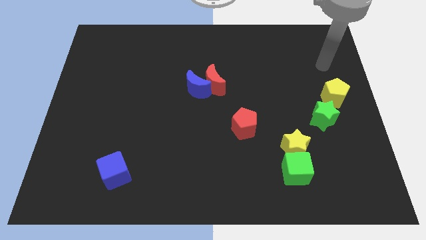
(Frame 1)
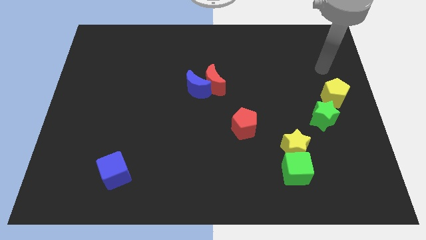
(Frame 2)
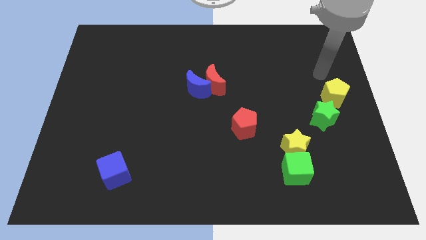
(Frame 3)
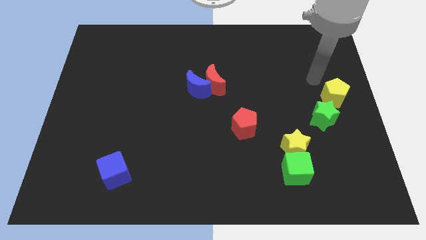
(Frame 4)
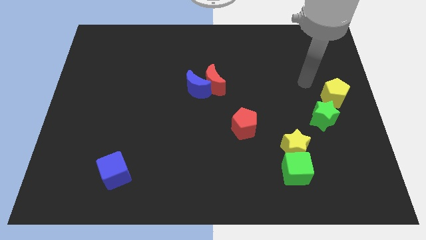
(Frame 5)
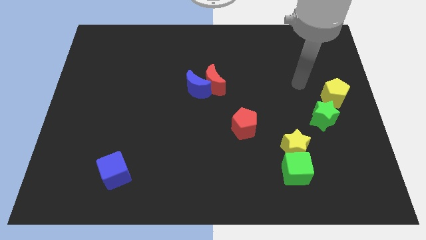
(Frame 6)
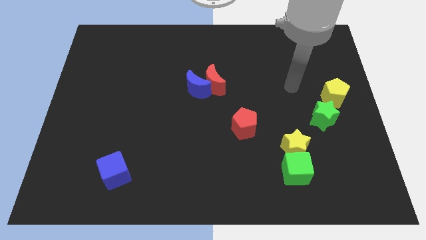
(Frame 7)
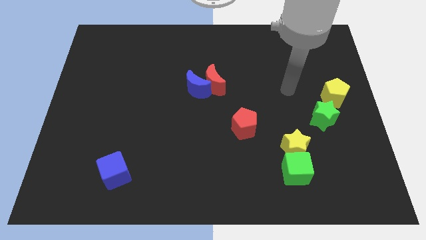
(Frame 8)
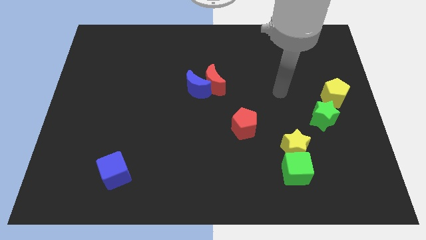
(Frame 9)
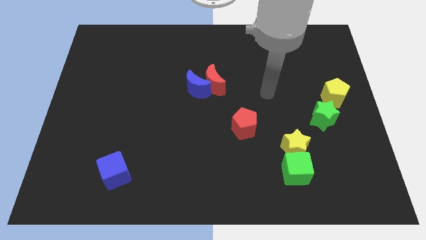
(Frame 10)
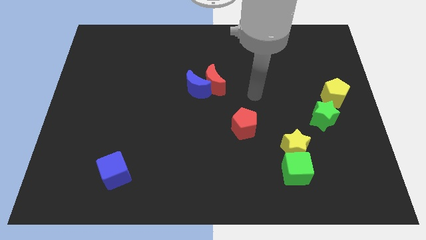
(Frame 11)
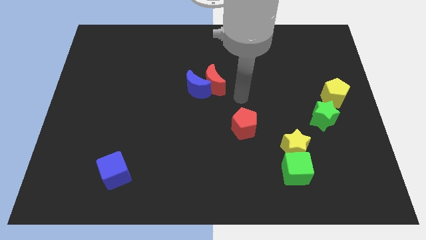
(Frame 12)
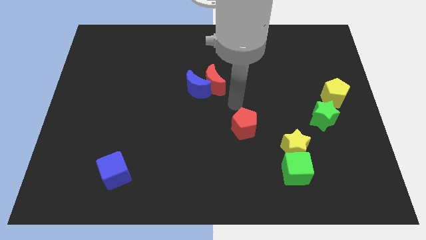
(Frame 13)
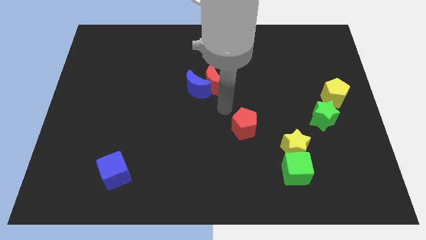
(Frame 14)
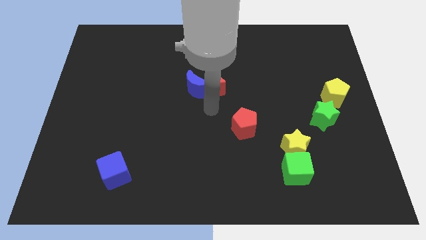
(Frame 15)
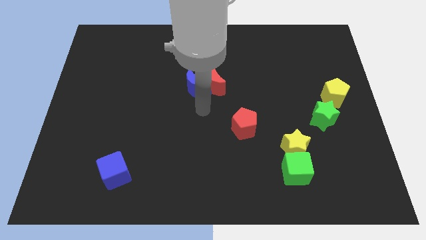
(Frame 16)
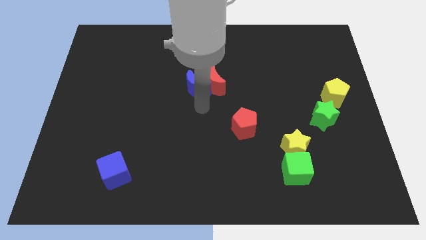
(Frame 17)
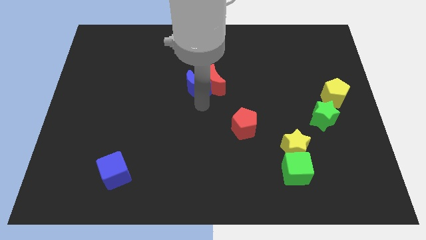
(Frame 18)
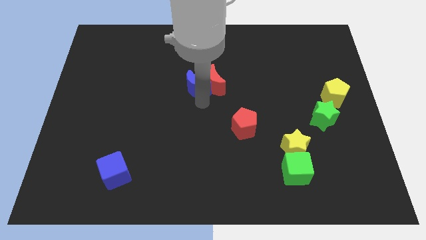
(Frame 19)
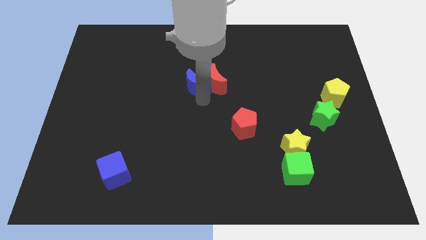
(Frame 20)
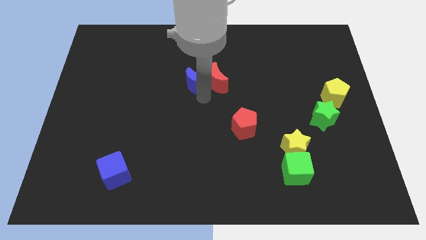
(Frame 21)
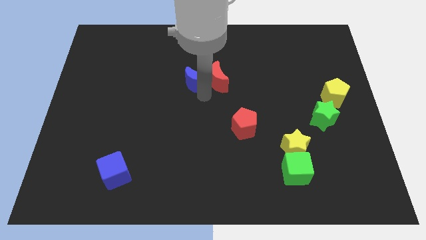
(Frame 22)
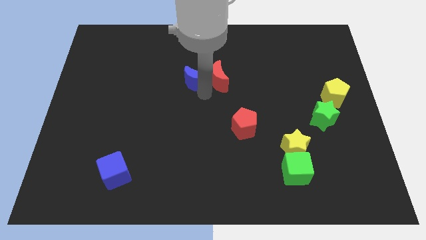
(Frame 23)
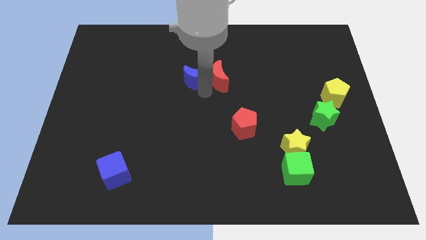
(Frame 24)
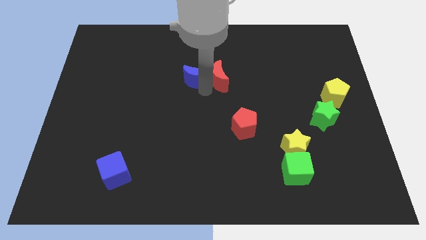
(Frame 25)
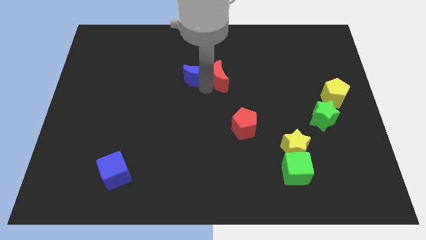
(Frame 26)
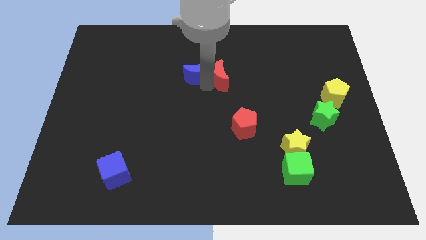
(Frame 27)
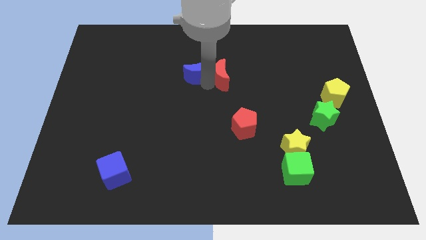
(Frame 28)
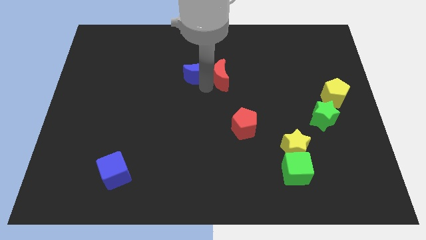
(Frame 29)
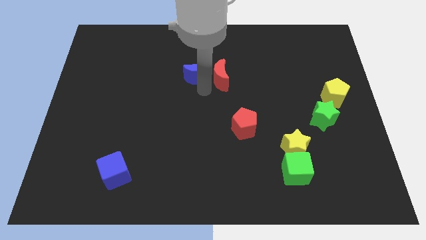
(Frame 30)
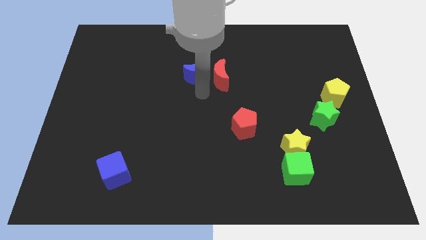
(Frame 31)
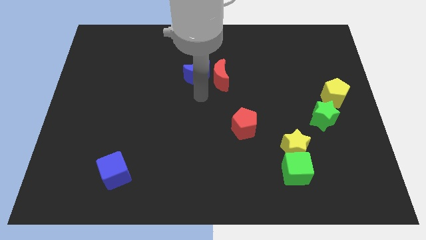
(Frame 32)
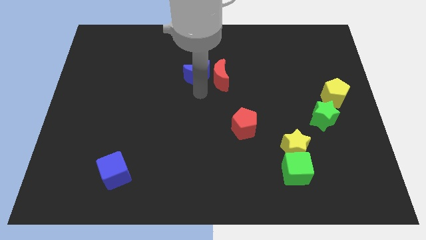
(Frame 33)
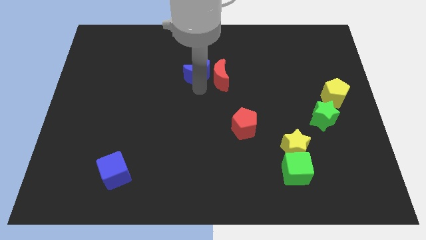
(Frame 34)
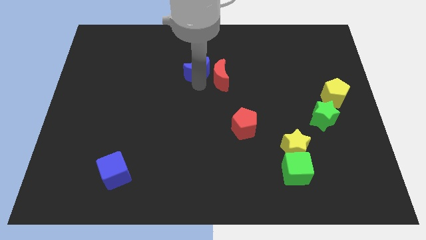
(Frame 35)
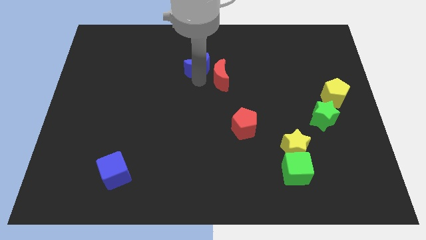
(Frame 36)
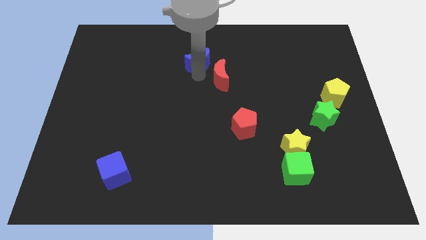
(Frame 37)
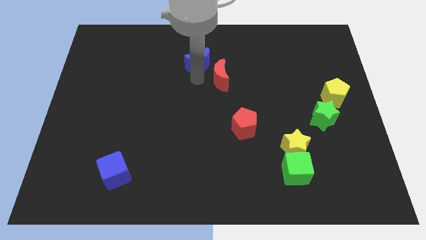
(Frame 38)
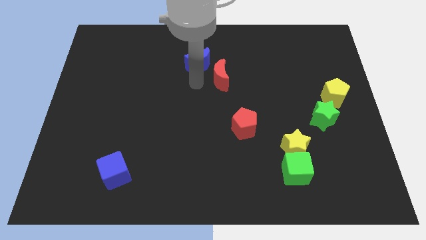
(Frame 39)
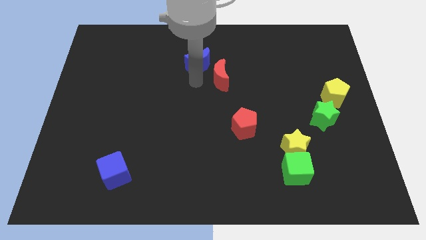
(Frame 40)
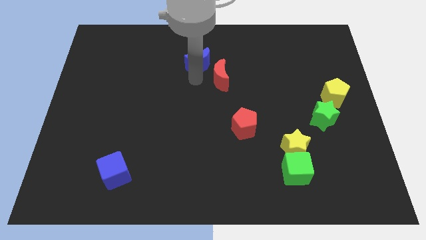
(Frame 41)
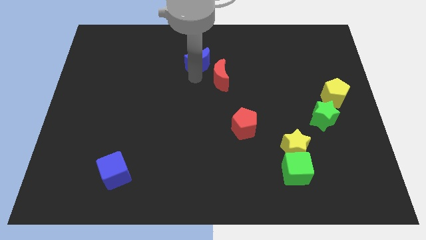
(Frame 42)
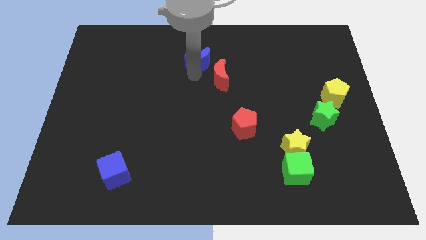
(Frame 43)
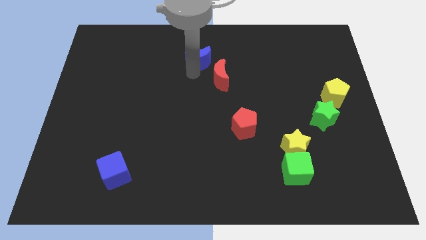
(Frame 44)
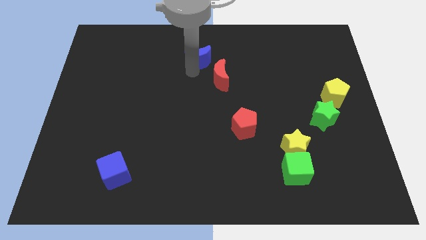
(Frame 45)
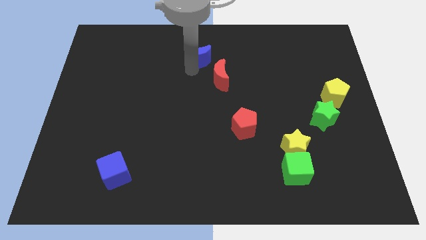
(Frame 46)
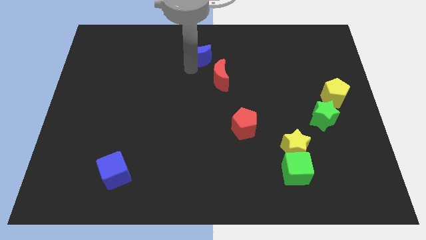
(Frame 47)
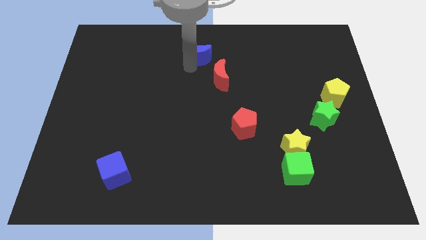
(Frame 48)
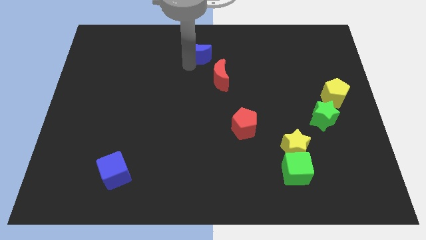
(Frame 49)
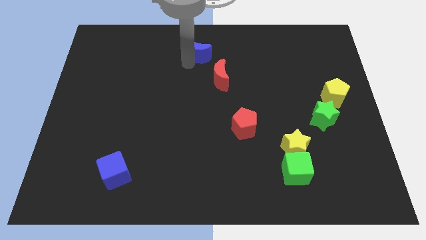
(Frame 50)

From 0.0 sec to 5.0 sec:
move the blue moon to the towards your base

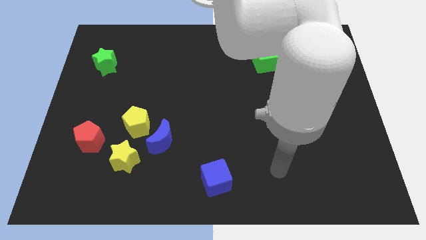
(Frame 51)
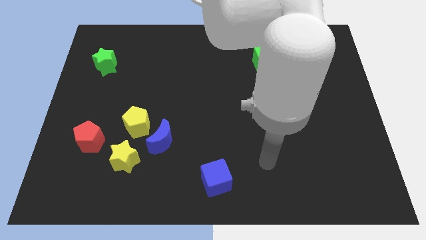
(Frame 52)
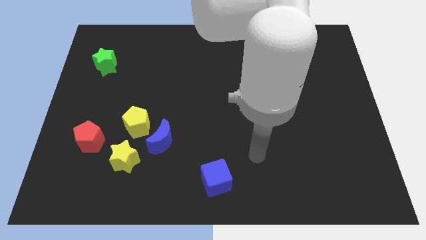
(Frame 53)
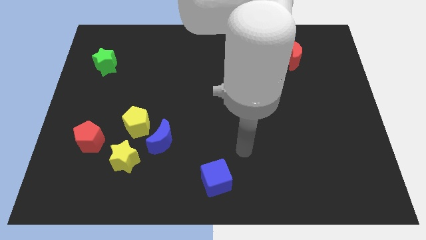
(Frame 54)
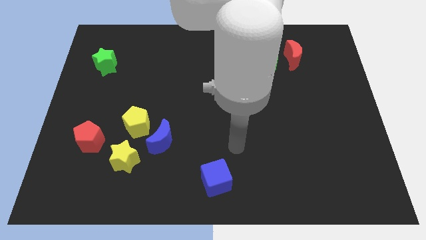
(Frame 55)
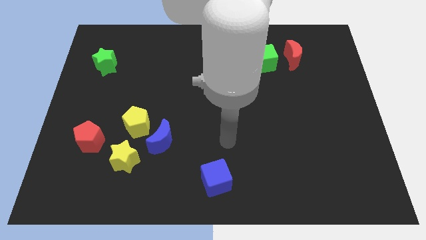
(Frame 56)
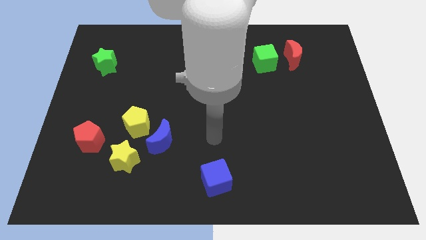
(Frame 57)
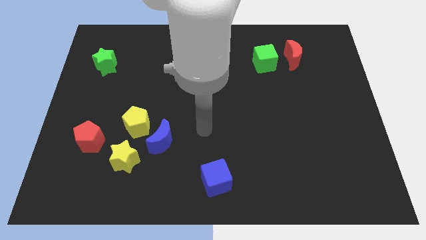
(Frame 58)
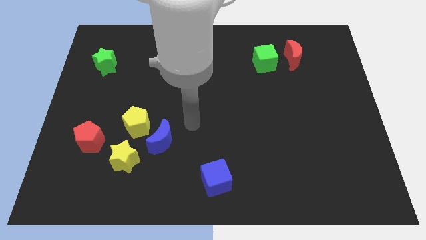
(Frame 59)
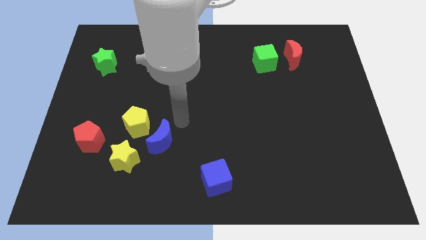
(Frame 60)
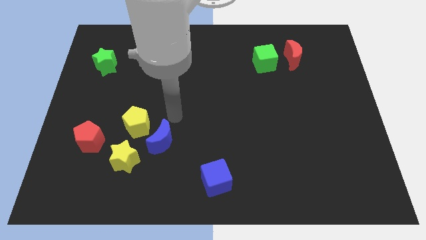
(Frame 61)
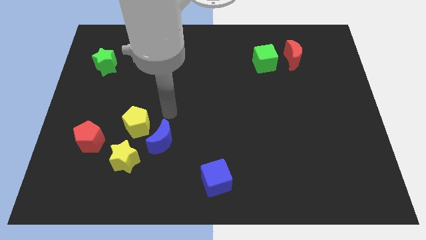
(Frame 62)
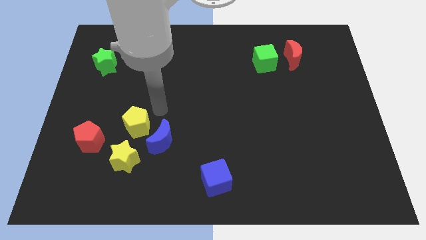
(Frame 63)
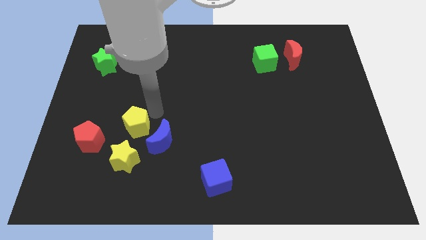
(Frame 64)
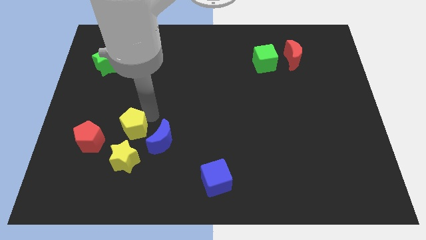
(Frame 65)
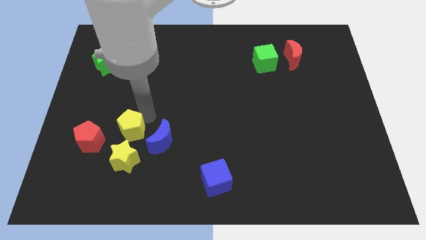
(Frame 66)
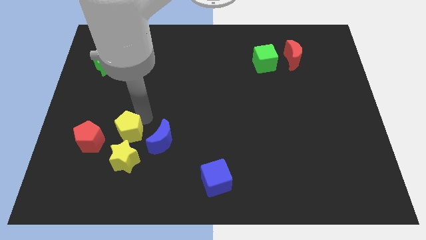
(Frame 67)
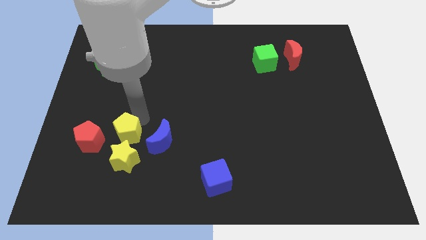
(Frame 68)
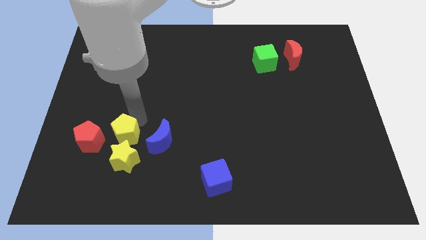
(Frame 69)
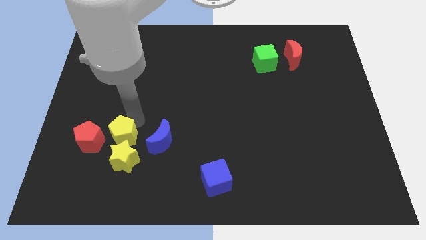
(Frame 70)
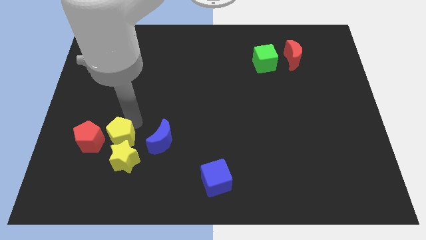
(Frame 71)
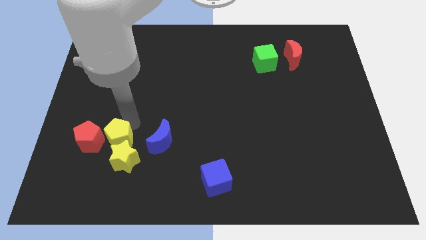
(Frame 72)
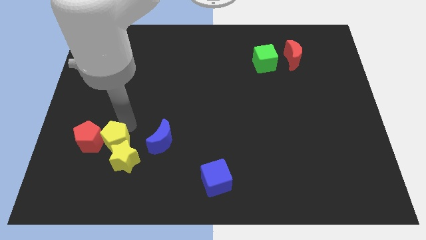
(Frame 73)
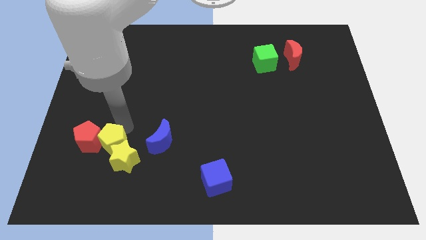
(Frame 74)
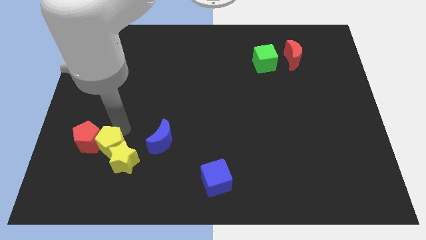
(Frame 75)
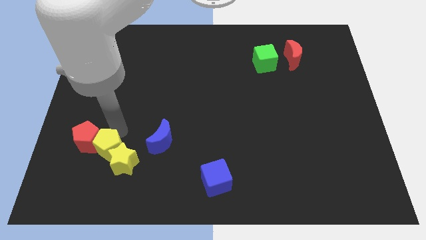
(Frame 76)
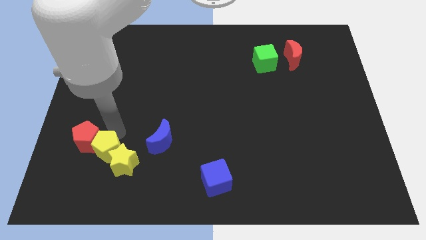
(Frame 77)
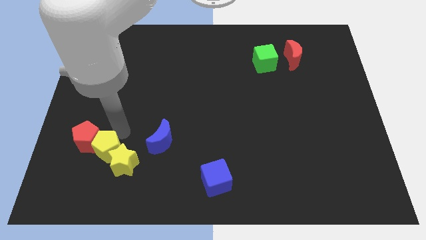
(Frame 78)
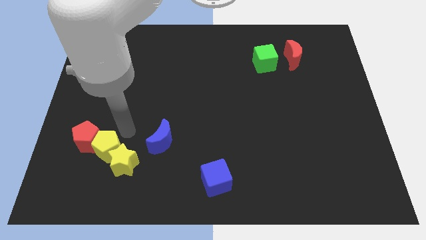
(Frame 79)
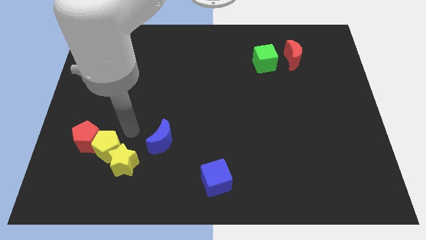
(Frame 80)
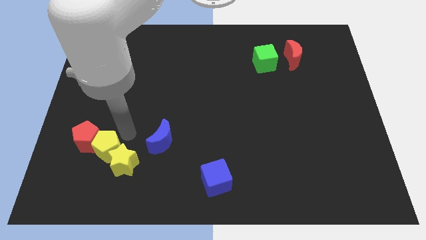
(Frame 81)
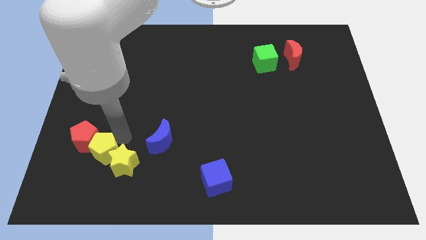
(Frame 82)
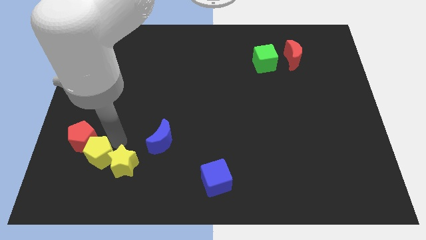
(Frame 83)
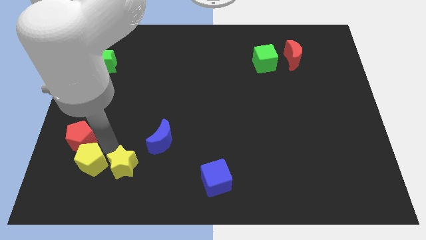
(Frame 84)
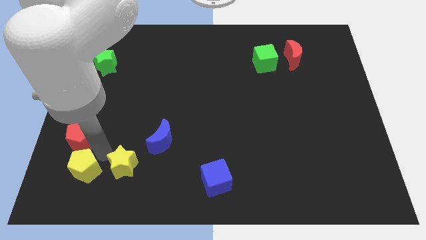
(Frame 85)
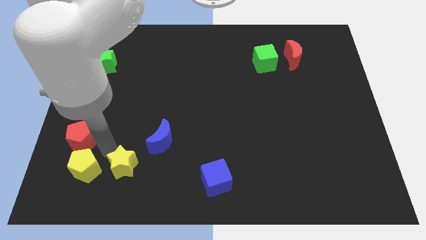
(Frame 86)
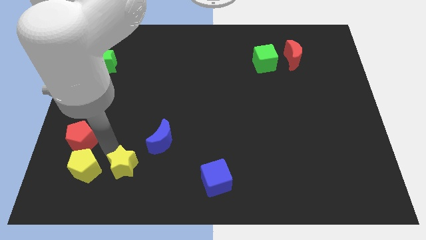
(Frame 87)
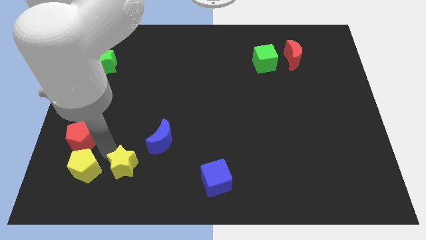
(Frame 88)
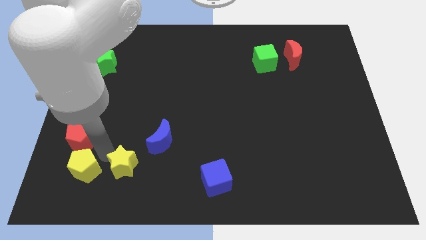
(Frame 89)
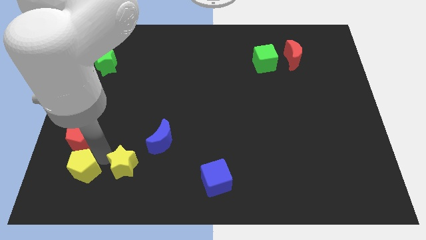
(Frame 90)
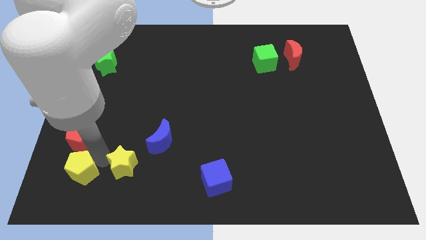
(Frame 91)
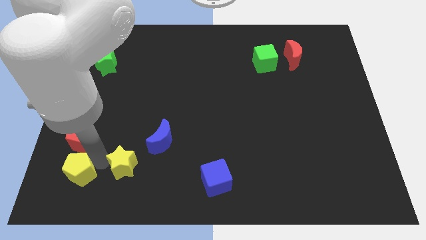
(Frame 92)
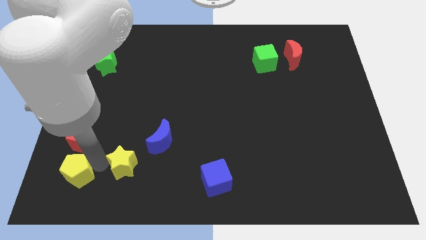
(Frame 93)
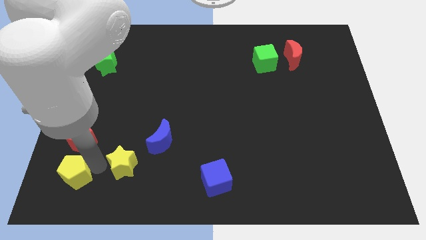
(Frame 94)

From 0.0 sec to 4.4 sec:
move the yellow pentagon to the bottom left of the board
